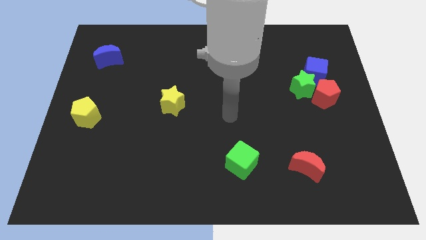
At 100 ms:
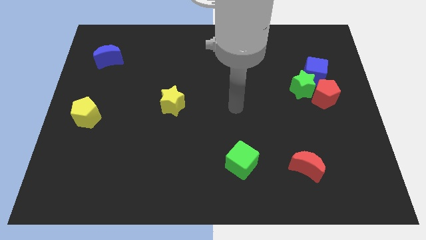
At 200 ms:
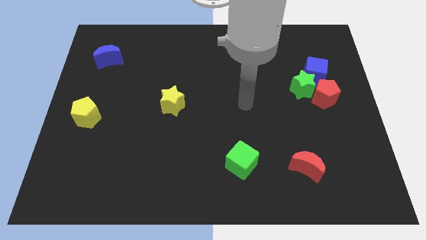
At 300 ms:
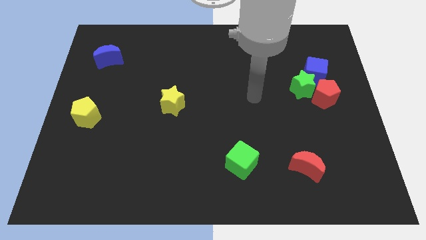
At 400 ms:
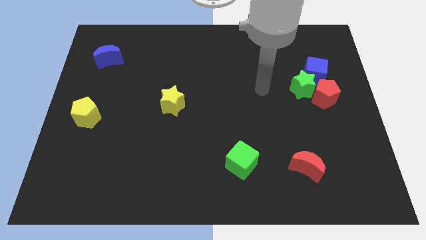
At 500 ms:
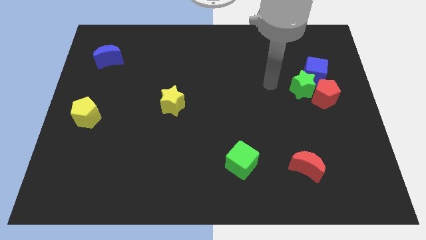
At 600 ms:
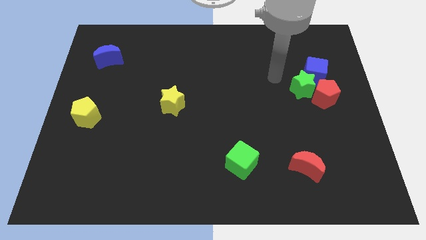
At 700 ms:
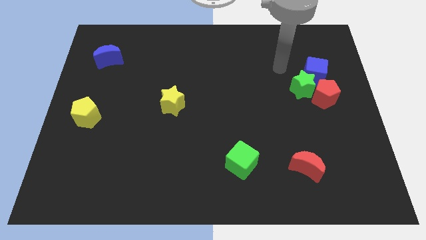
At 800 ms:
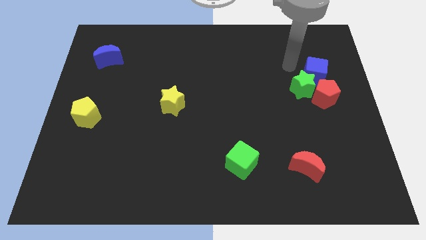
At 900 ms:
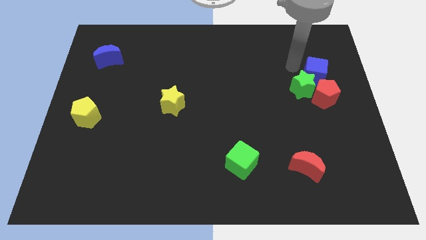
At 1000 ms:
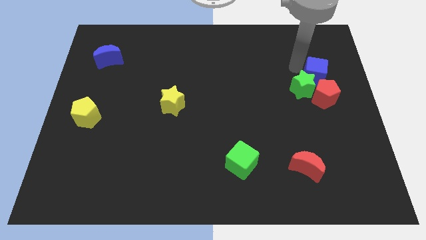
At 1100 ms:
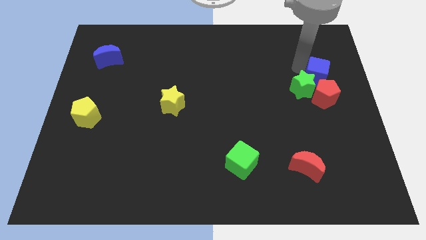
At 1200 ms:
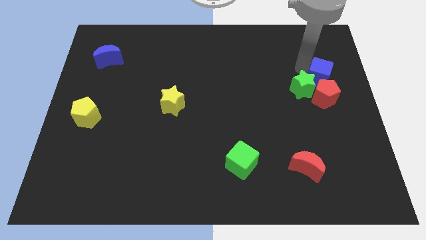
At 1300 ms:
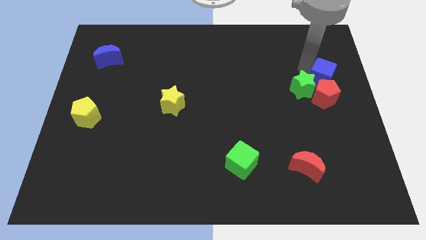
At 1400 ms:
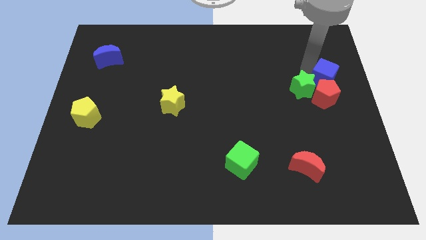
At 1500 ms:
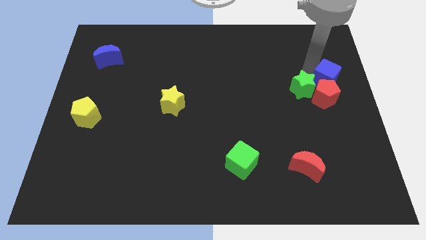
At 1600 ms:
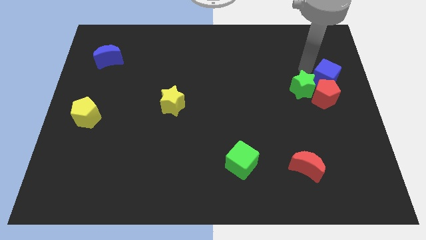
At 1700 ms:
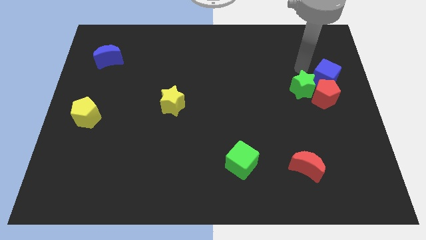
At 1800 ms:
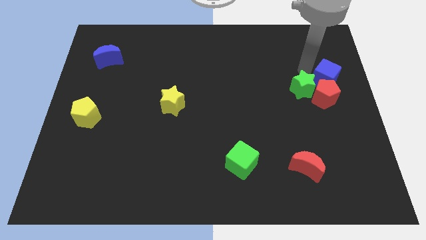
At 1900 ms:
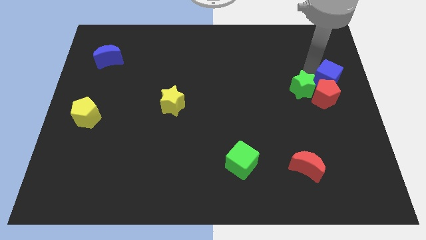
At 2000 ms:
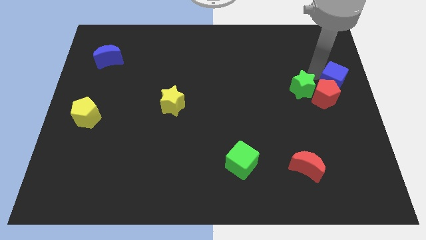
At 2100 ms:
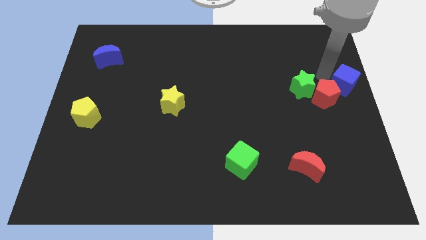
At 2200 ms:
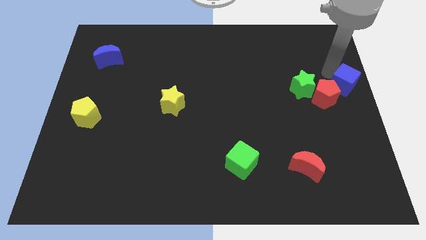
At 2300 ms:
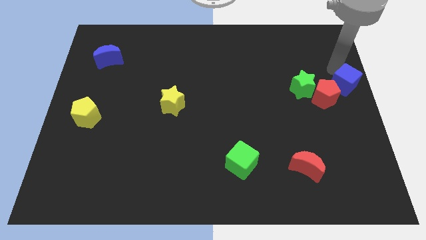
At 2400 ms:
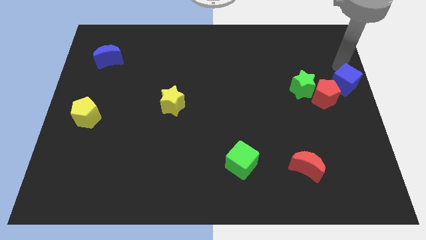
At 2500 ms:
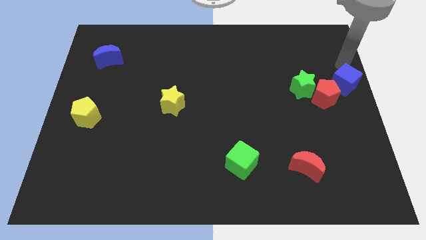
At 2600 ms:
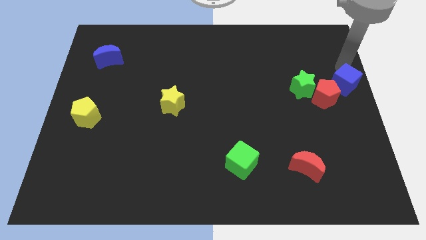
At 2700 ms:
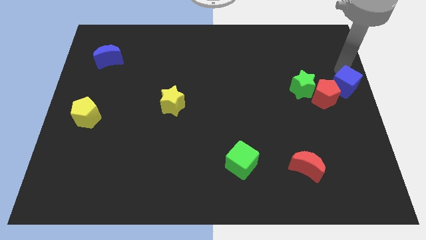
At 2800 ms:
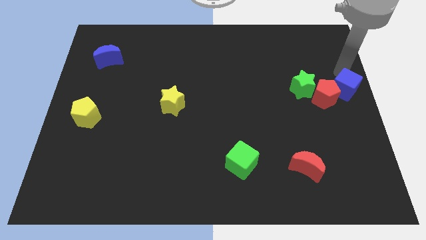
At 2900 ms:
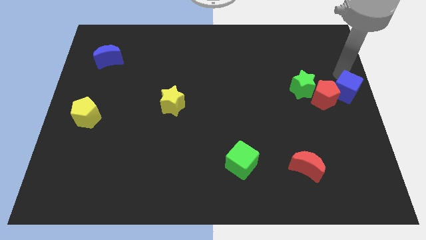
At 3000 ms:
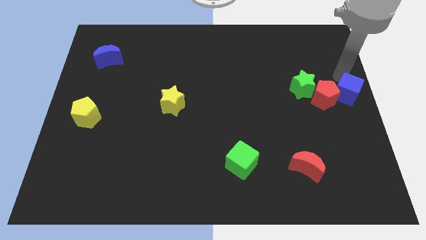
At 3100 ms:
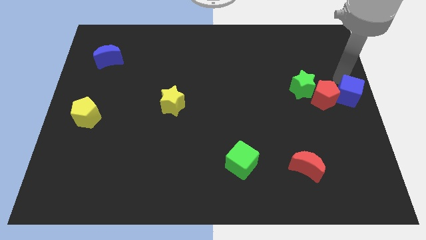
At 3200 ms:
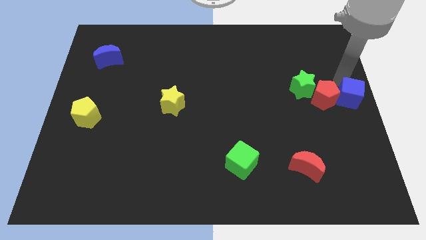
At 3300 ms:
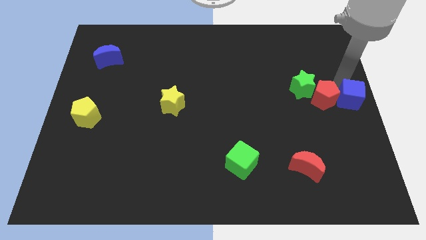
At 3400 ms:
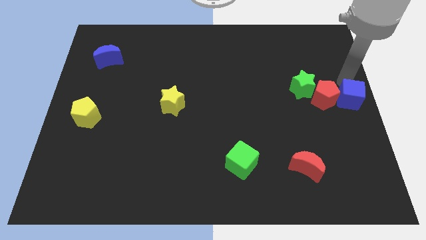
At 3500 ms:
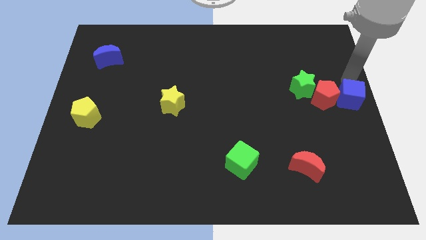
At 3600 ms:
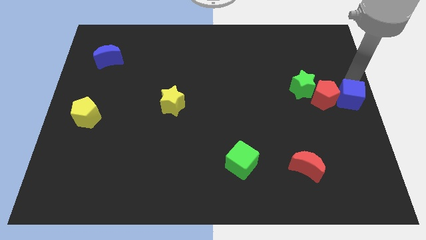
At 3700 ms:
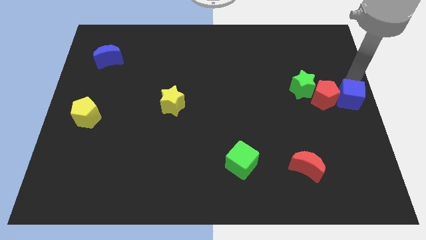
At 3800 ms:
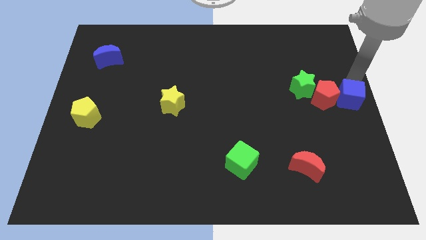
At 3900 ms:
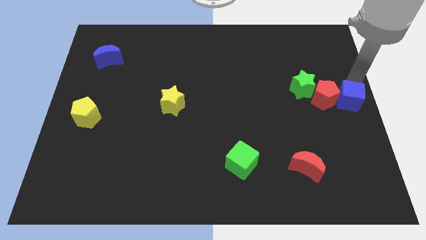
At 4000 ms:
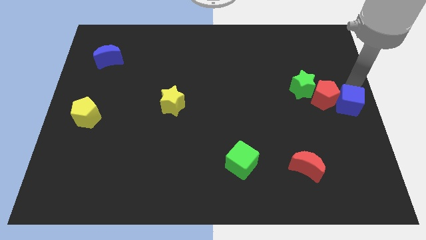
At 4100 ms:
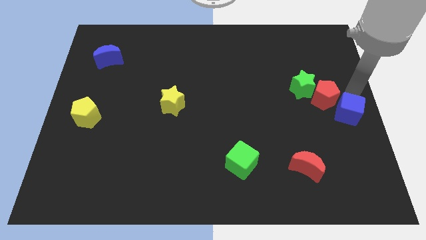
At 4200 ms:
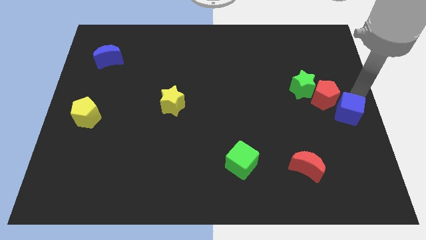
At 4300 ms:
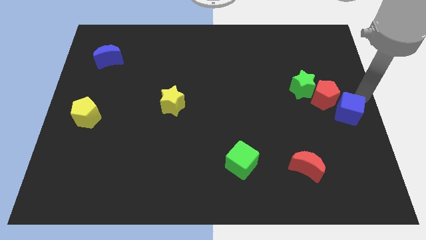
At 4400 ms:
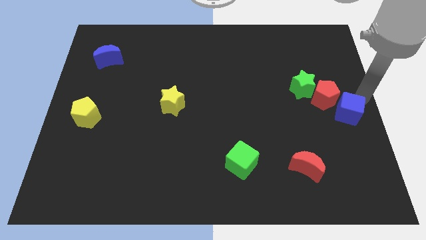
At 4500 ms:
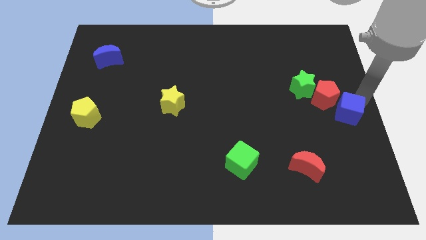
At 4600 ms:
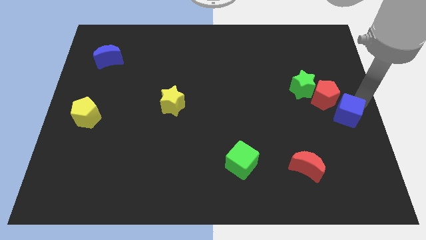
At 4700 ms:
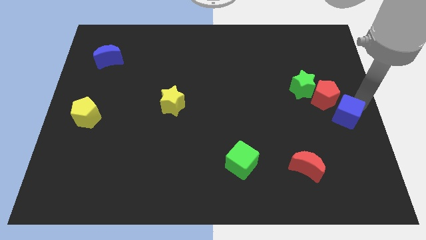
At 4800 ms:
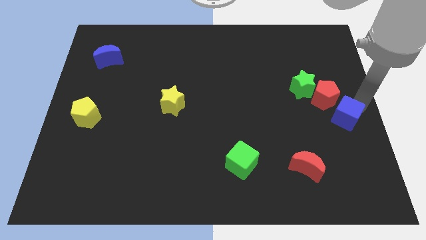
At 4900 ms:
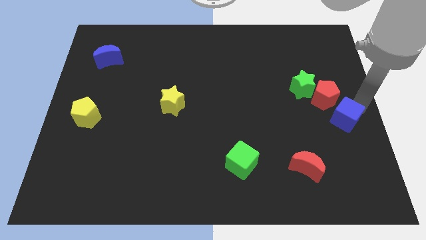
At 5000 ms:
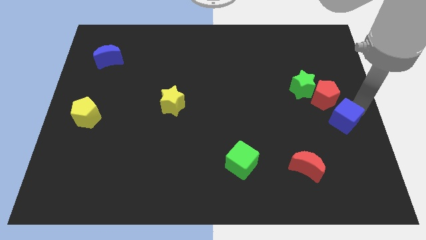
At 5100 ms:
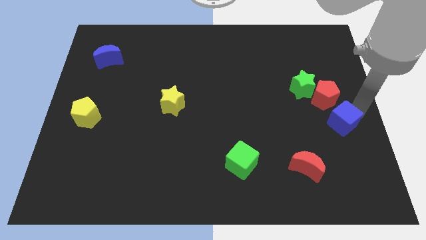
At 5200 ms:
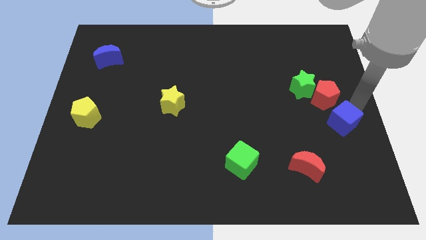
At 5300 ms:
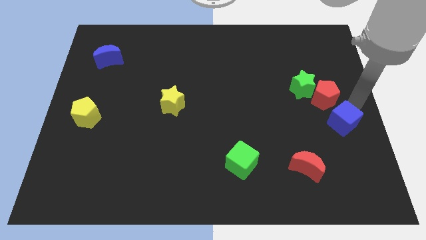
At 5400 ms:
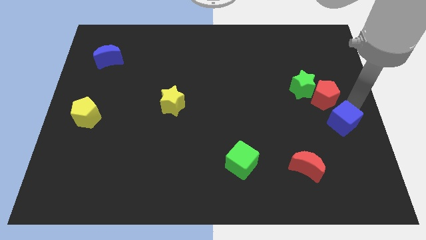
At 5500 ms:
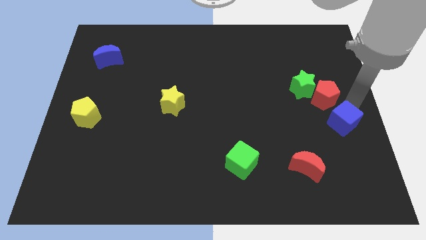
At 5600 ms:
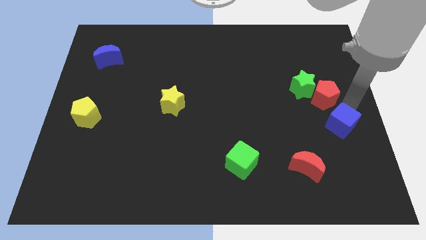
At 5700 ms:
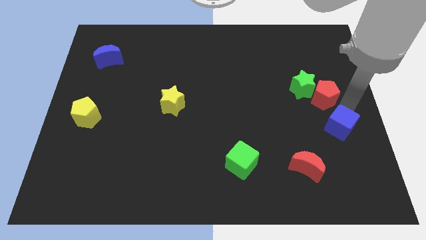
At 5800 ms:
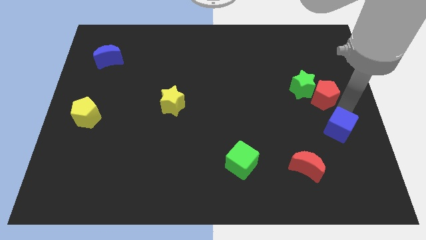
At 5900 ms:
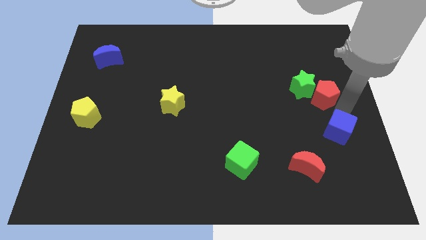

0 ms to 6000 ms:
move the blue cube diagonally up and to the right of the red moon

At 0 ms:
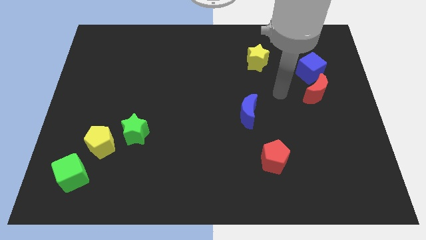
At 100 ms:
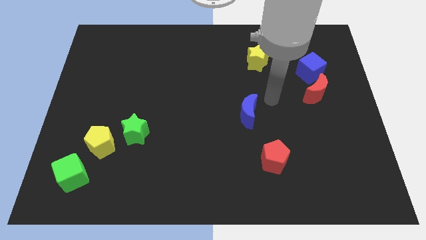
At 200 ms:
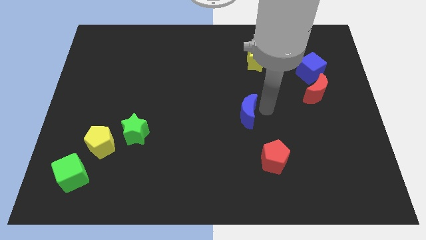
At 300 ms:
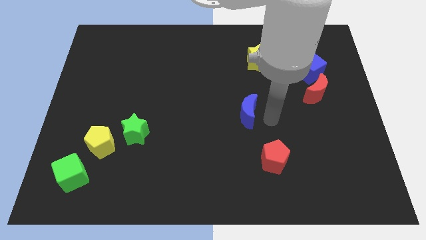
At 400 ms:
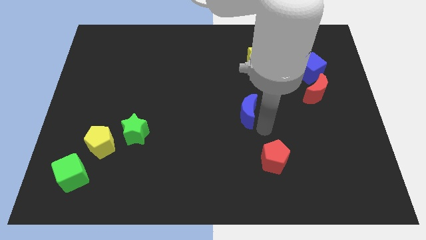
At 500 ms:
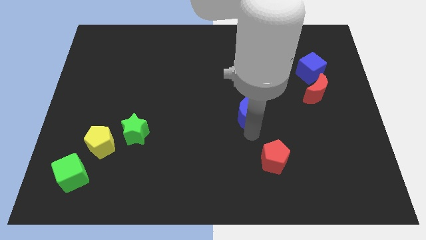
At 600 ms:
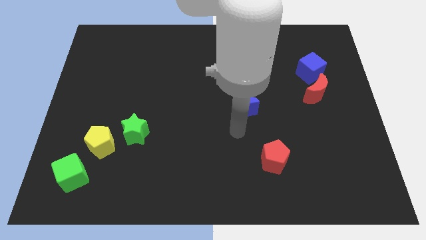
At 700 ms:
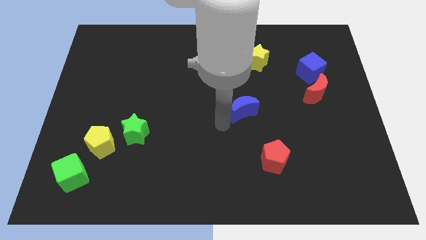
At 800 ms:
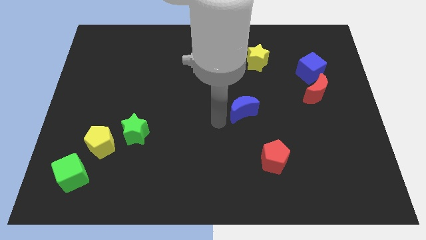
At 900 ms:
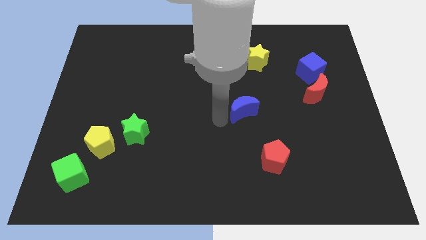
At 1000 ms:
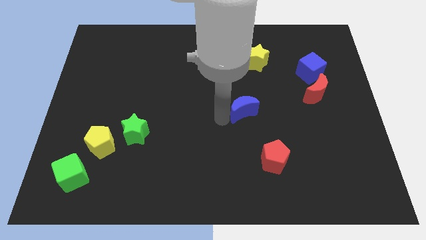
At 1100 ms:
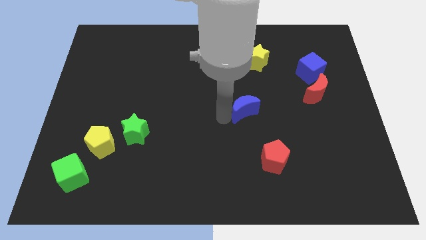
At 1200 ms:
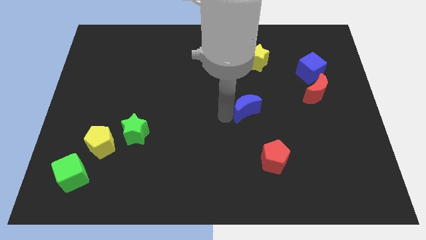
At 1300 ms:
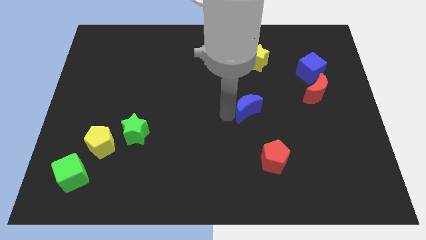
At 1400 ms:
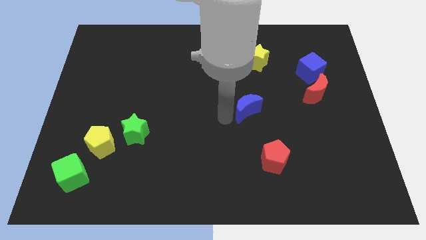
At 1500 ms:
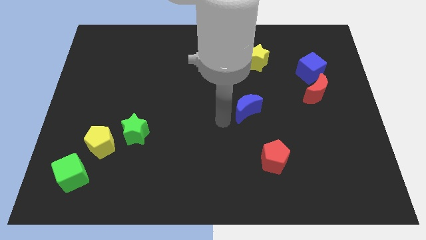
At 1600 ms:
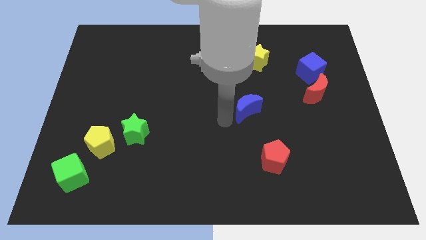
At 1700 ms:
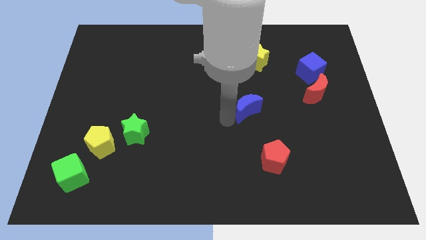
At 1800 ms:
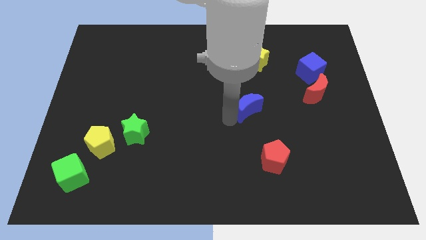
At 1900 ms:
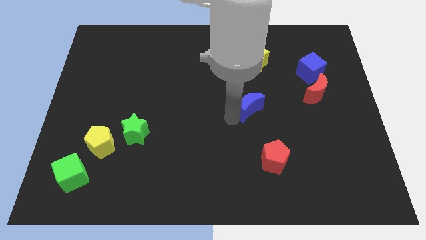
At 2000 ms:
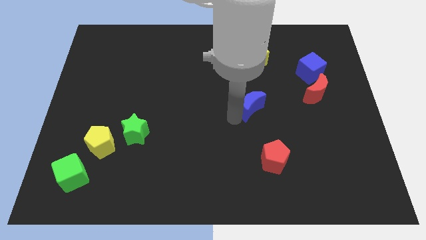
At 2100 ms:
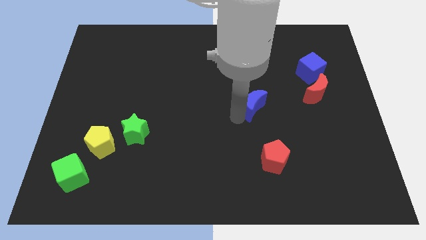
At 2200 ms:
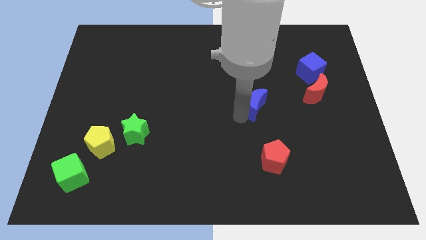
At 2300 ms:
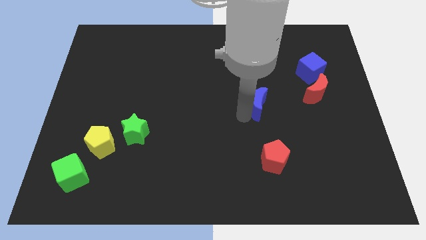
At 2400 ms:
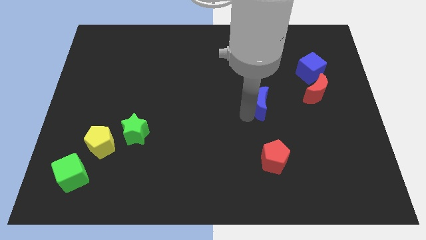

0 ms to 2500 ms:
push the blue moon to the left side of the red moon
